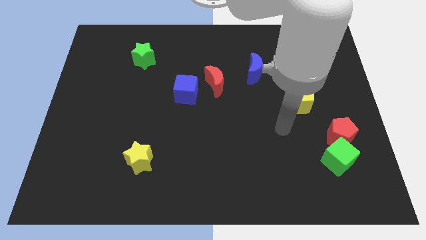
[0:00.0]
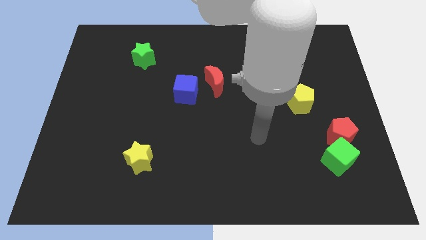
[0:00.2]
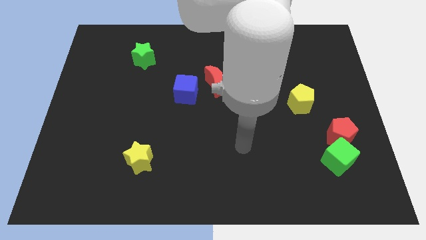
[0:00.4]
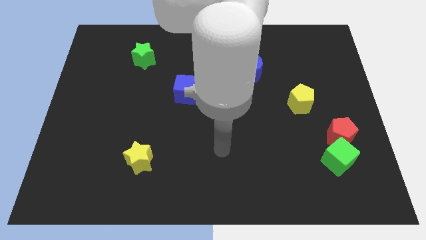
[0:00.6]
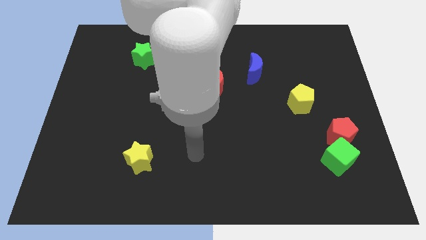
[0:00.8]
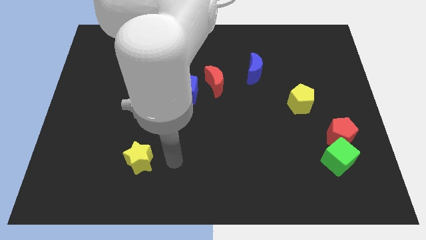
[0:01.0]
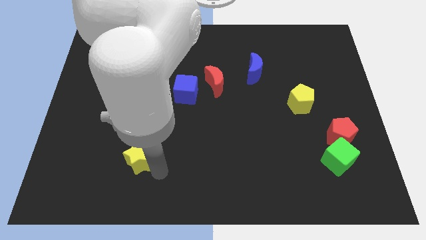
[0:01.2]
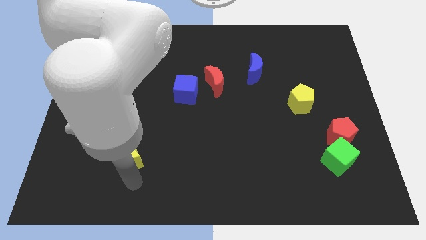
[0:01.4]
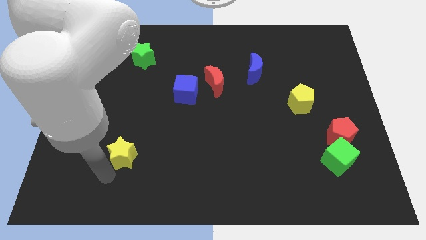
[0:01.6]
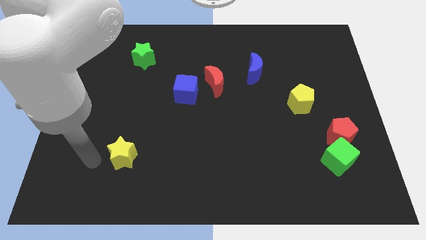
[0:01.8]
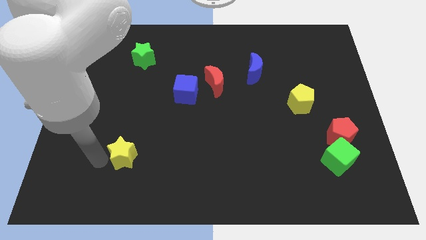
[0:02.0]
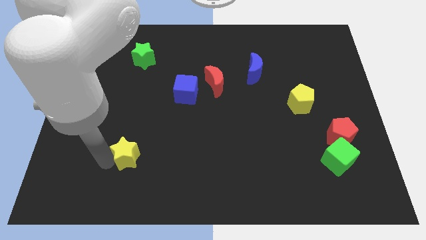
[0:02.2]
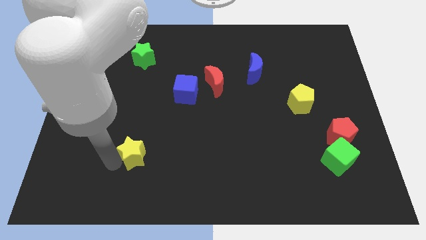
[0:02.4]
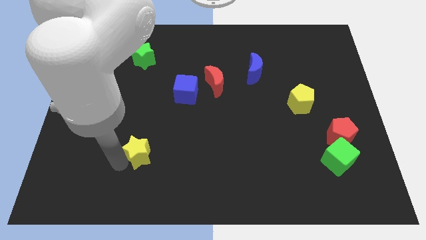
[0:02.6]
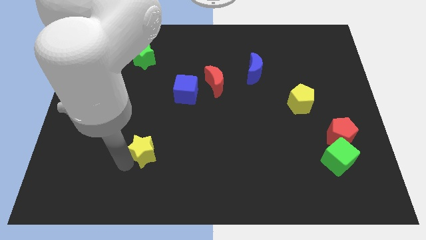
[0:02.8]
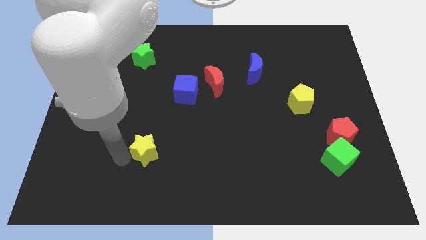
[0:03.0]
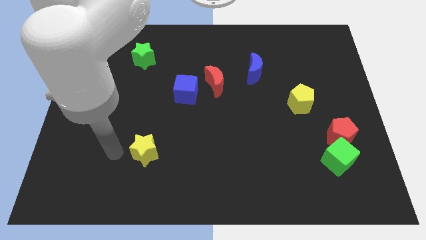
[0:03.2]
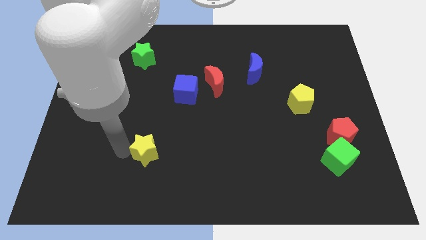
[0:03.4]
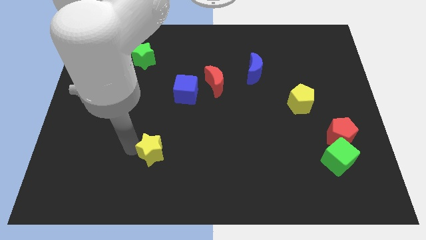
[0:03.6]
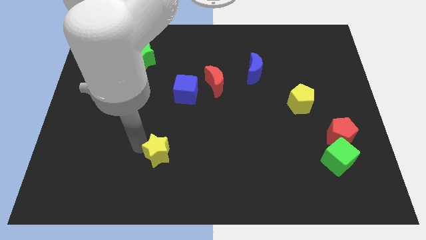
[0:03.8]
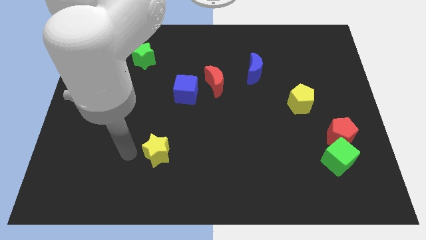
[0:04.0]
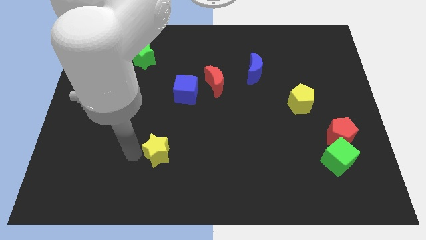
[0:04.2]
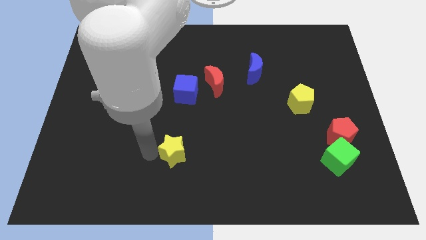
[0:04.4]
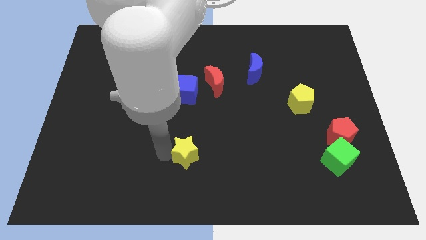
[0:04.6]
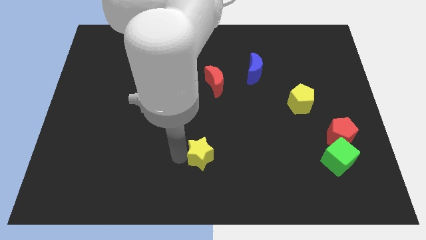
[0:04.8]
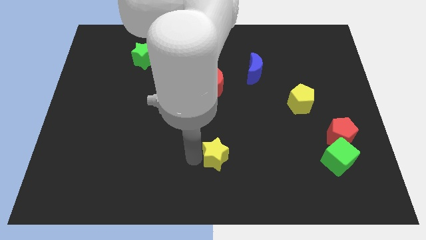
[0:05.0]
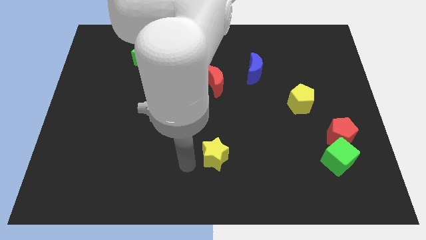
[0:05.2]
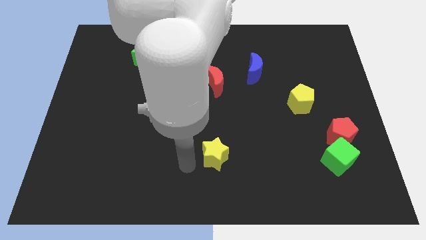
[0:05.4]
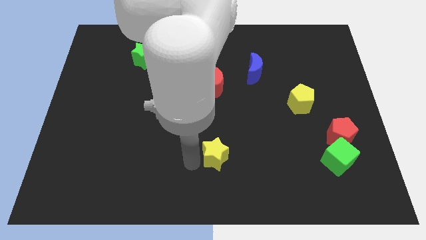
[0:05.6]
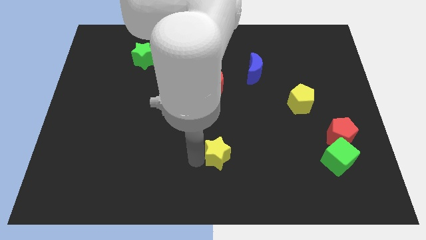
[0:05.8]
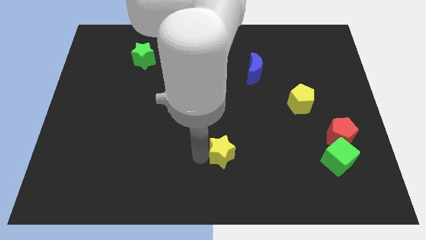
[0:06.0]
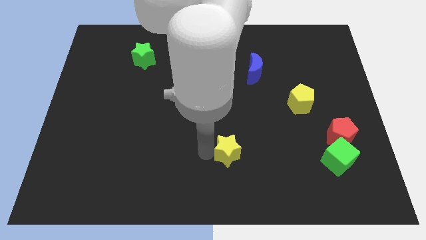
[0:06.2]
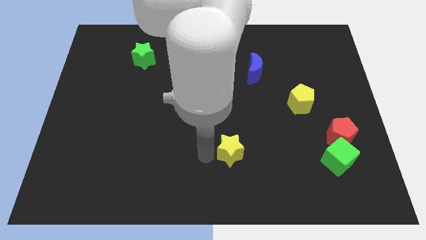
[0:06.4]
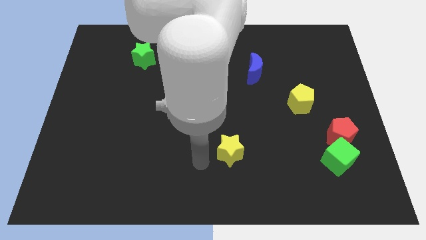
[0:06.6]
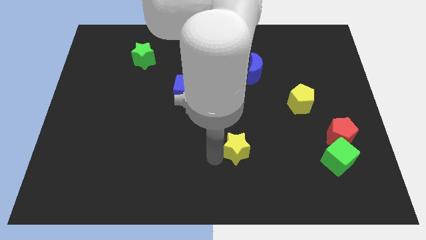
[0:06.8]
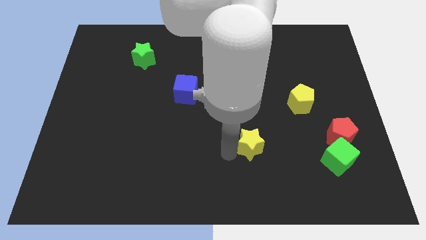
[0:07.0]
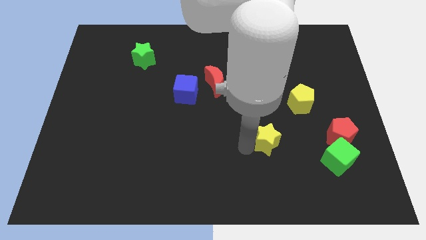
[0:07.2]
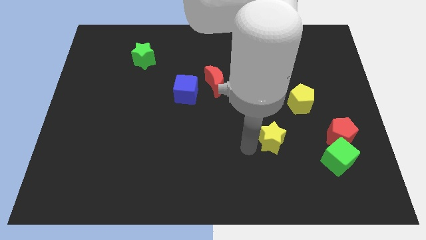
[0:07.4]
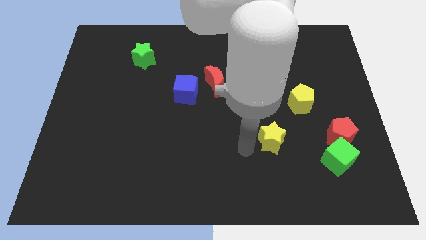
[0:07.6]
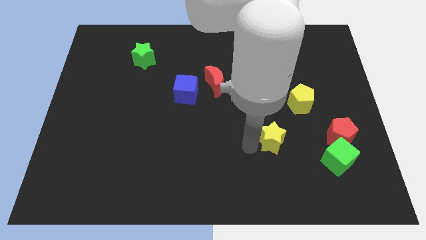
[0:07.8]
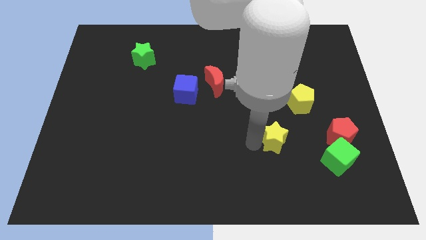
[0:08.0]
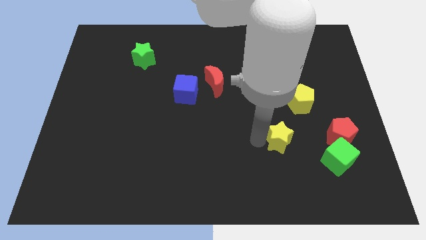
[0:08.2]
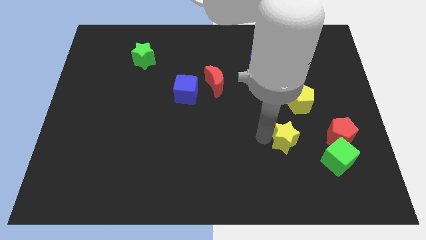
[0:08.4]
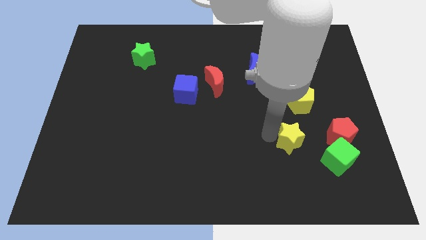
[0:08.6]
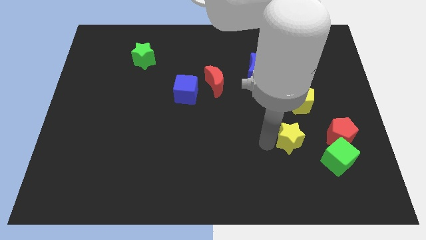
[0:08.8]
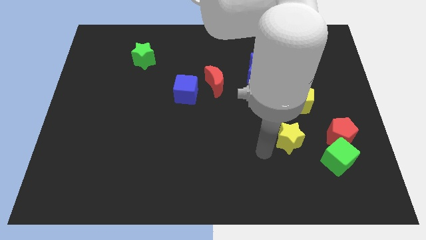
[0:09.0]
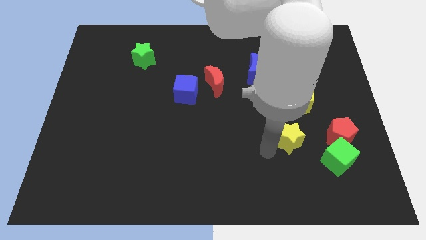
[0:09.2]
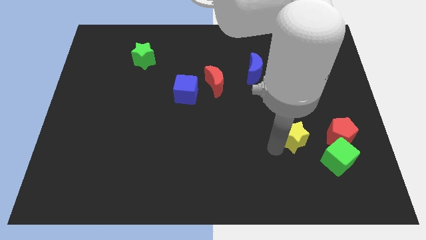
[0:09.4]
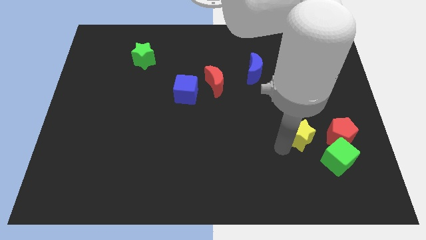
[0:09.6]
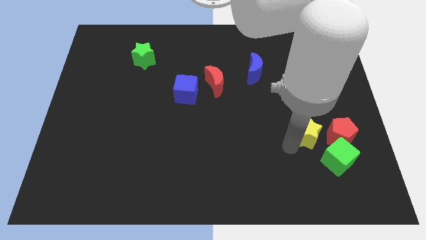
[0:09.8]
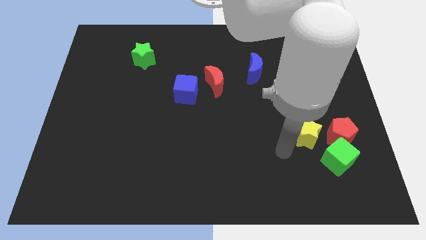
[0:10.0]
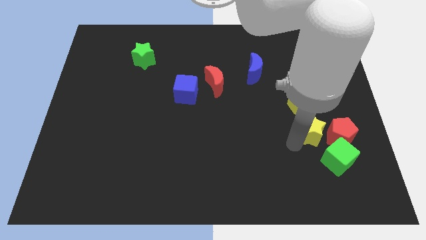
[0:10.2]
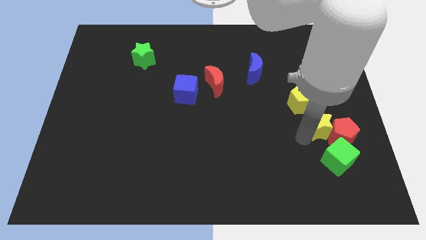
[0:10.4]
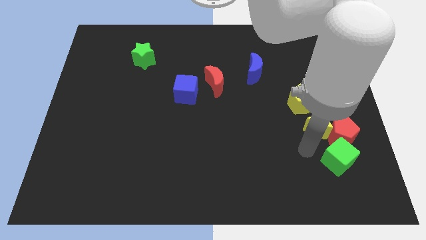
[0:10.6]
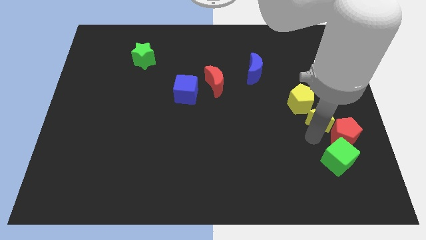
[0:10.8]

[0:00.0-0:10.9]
push the yellow star above the red pentagon
